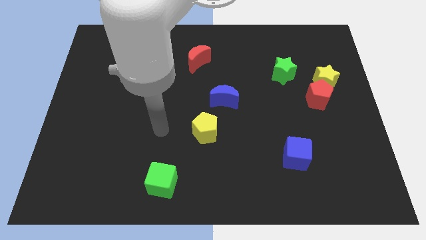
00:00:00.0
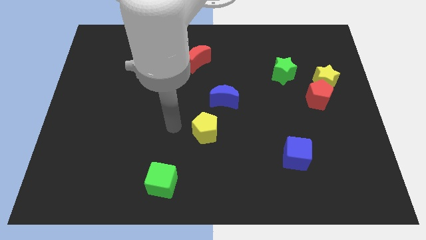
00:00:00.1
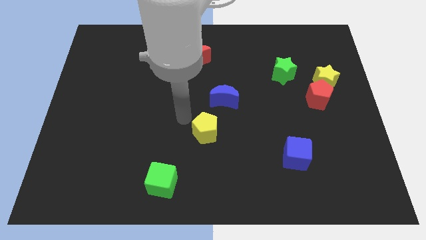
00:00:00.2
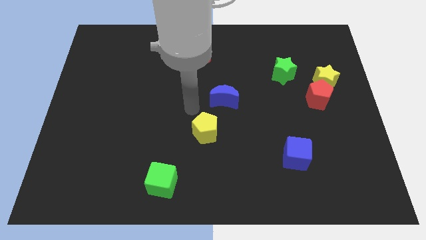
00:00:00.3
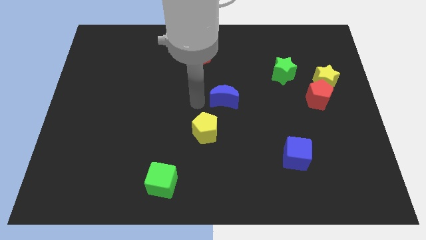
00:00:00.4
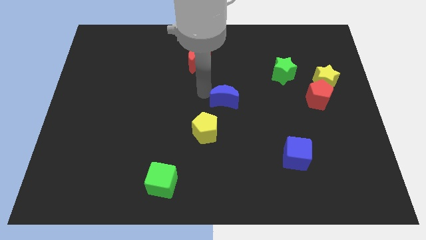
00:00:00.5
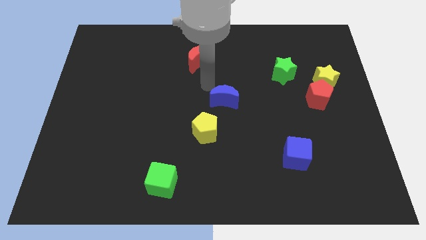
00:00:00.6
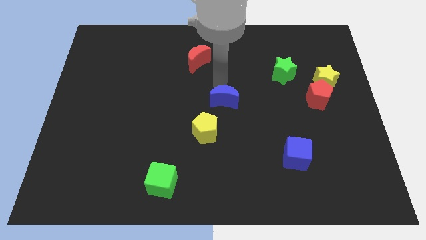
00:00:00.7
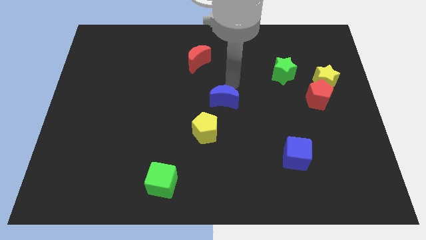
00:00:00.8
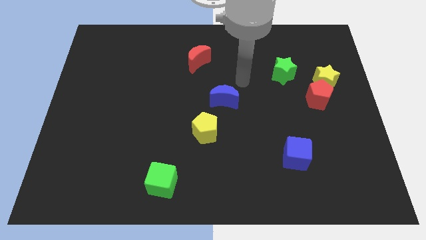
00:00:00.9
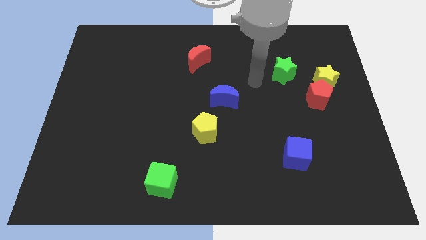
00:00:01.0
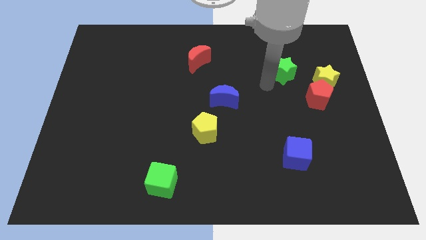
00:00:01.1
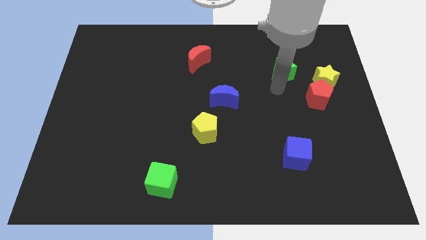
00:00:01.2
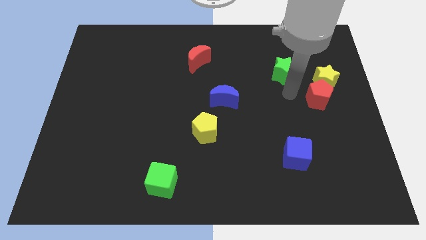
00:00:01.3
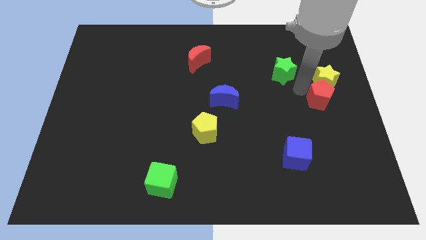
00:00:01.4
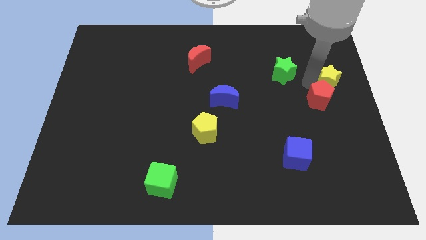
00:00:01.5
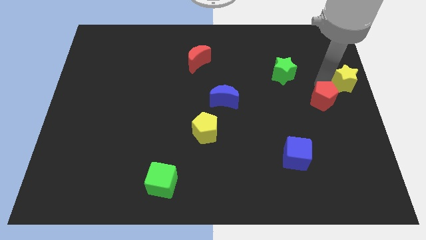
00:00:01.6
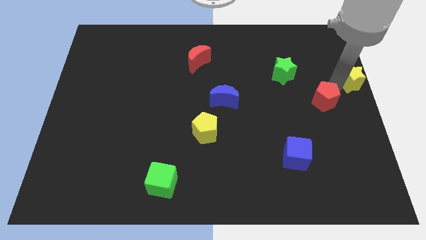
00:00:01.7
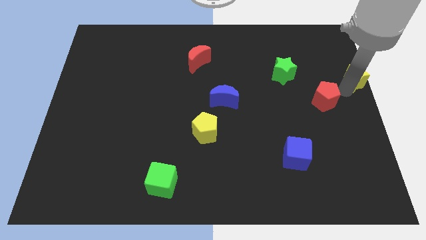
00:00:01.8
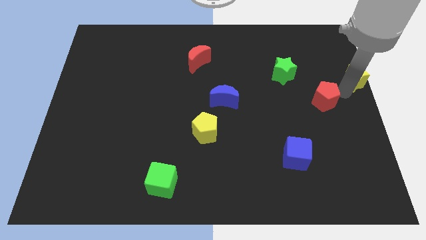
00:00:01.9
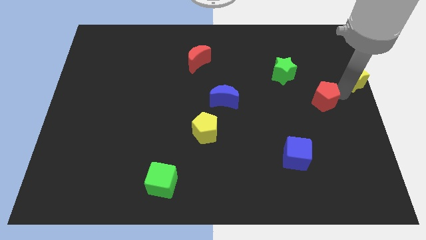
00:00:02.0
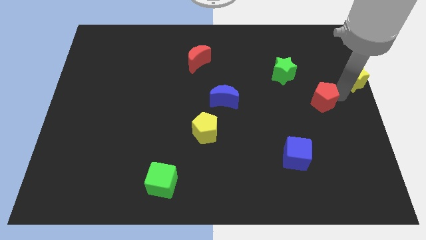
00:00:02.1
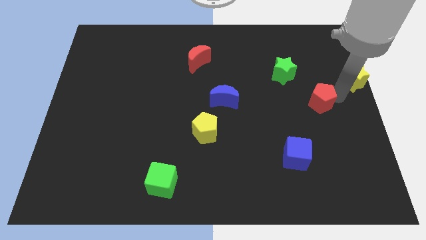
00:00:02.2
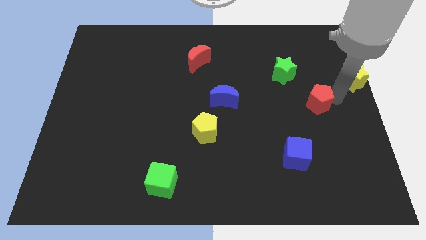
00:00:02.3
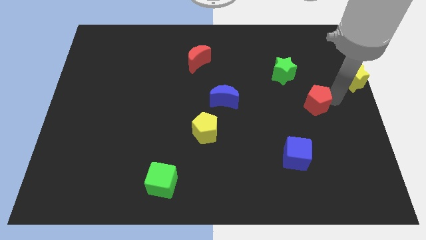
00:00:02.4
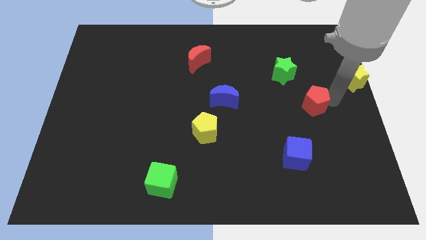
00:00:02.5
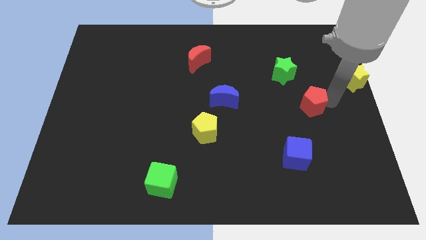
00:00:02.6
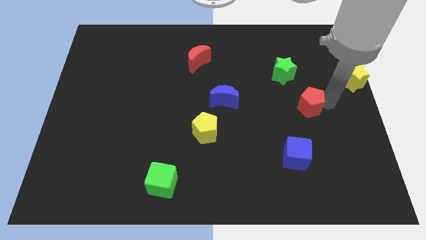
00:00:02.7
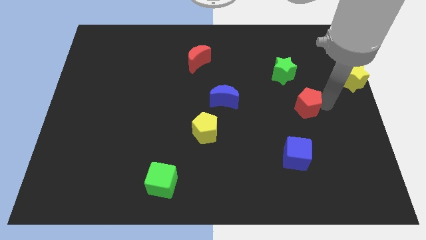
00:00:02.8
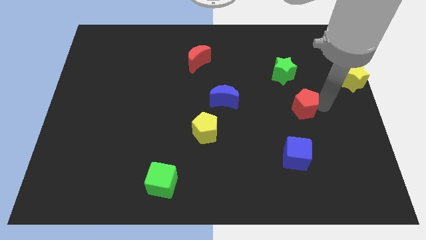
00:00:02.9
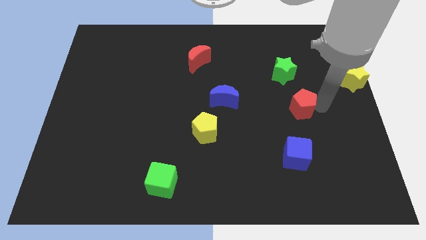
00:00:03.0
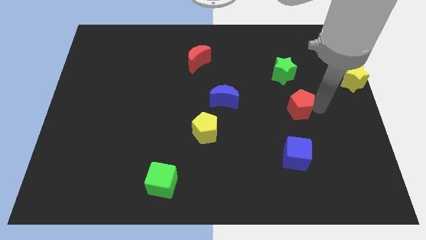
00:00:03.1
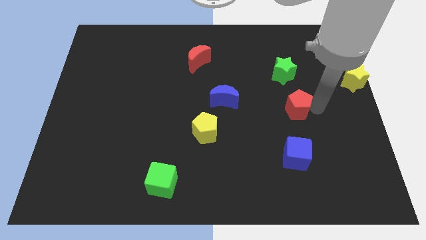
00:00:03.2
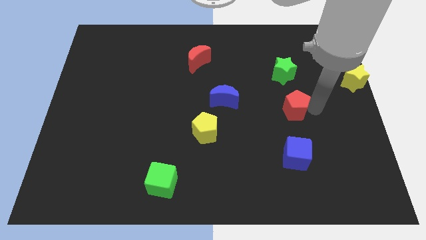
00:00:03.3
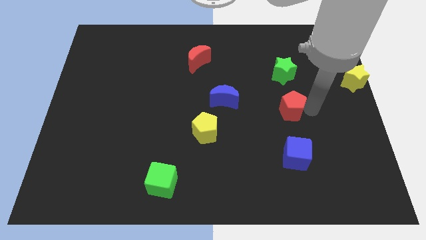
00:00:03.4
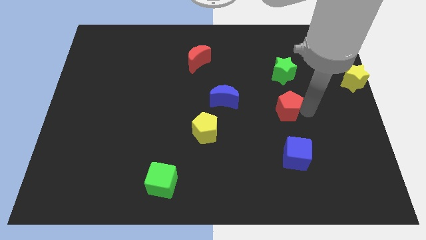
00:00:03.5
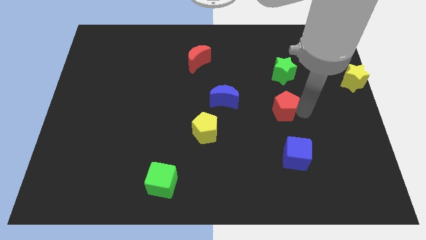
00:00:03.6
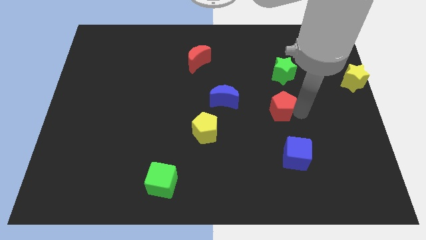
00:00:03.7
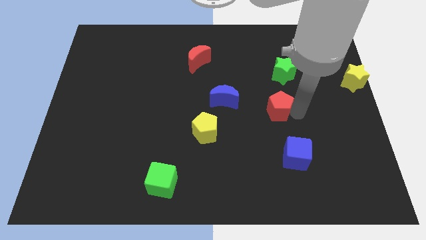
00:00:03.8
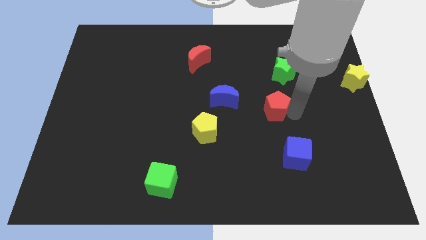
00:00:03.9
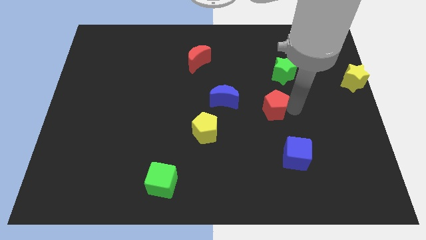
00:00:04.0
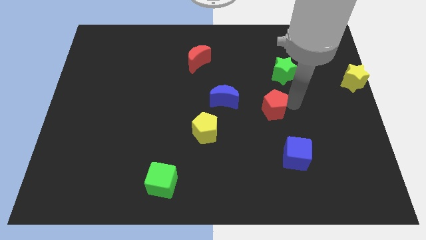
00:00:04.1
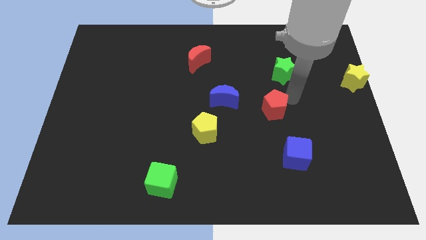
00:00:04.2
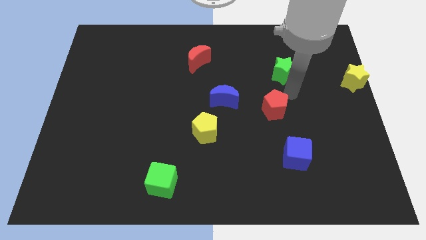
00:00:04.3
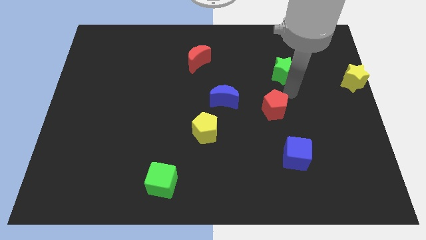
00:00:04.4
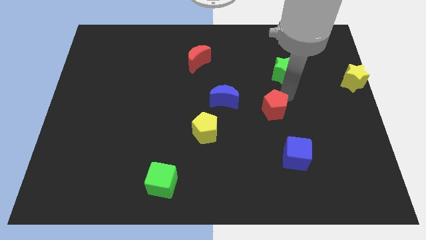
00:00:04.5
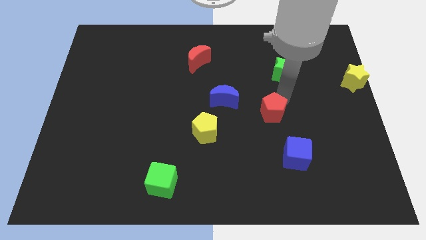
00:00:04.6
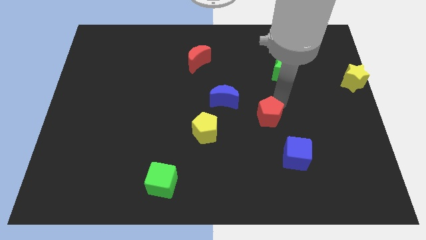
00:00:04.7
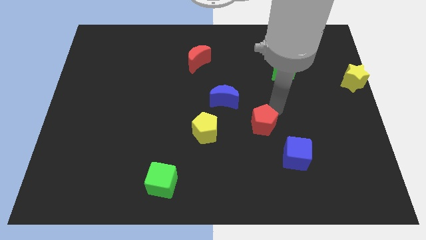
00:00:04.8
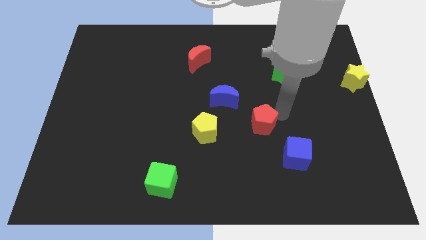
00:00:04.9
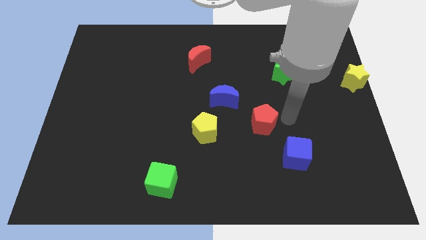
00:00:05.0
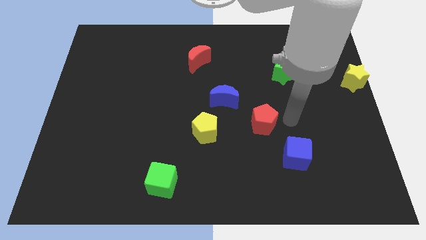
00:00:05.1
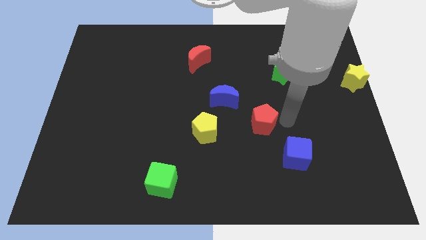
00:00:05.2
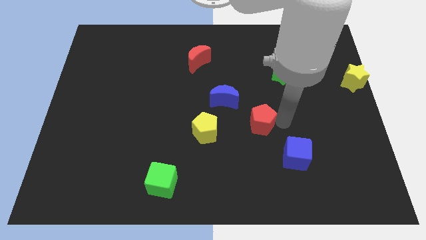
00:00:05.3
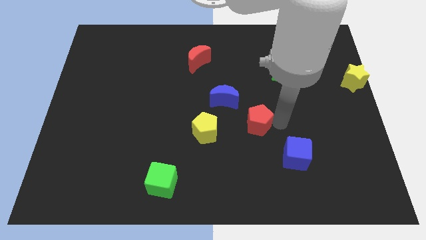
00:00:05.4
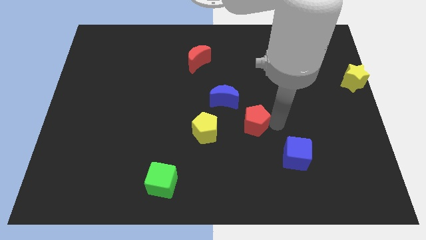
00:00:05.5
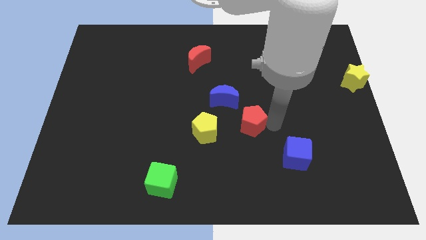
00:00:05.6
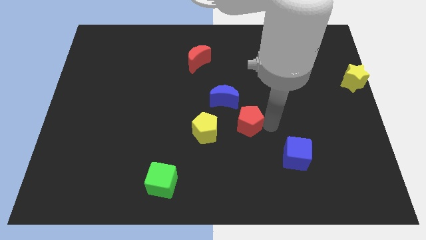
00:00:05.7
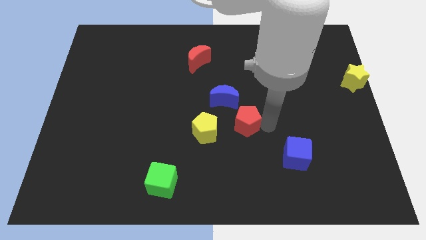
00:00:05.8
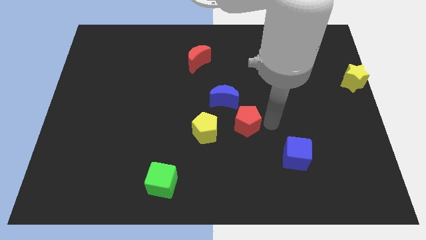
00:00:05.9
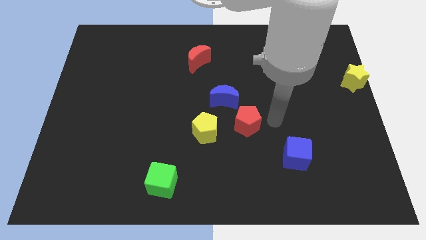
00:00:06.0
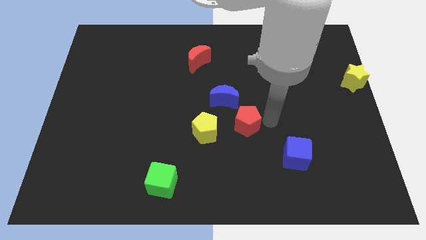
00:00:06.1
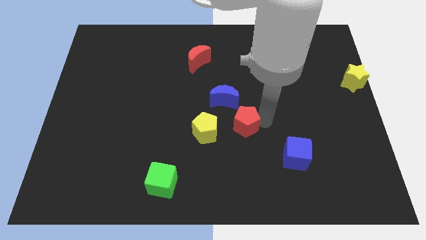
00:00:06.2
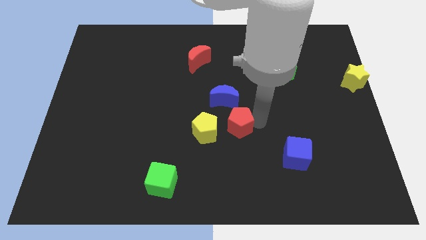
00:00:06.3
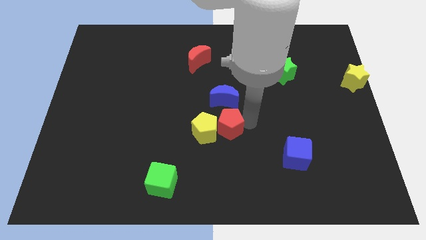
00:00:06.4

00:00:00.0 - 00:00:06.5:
push the red pentagon to the yellow pentagon

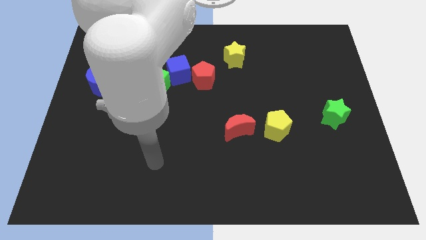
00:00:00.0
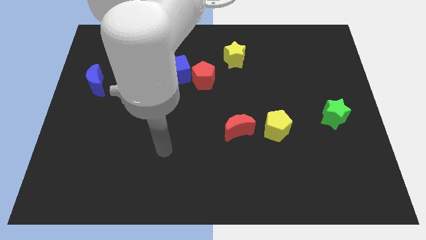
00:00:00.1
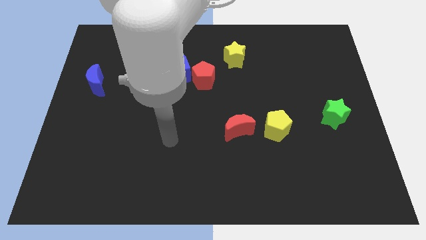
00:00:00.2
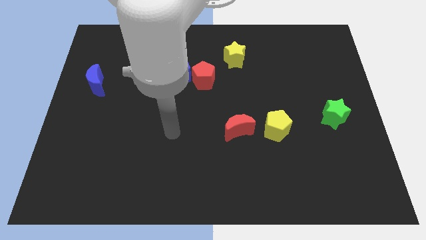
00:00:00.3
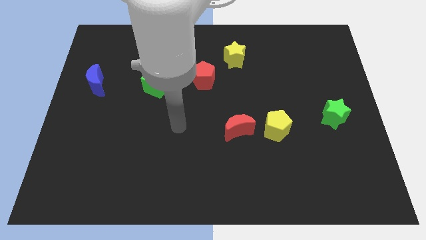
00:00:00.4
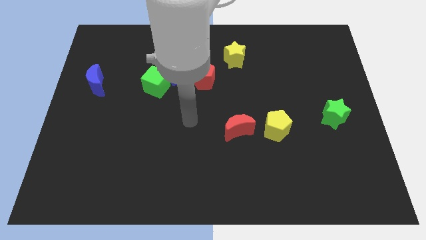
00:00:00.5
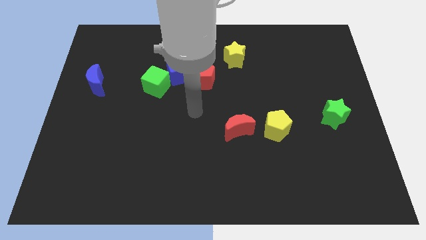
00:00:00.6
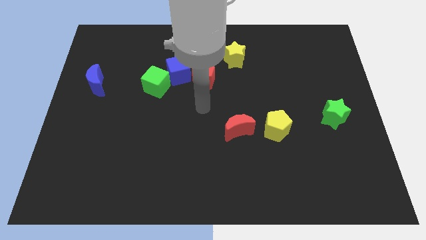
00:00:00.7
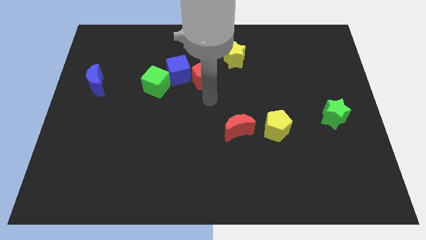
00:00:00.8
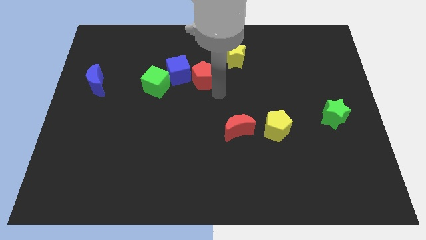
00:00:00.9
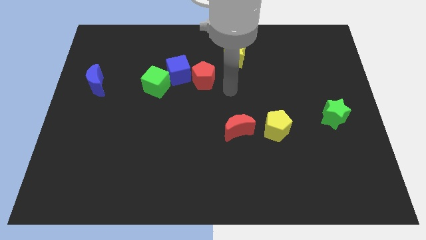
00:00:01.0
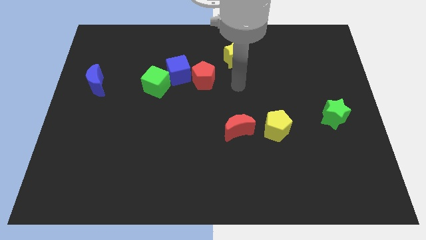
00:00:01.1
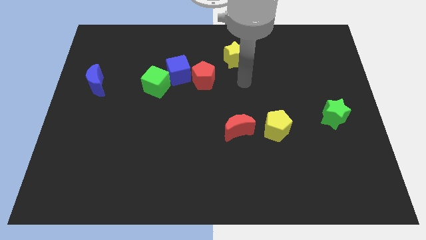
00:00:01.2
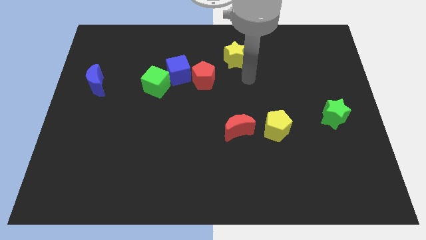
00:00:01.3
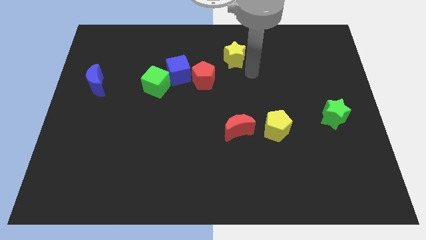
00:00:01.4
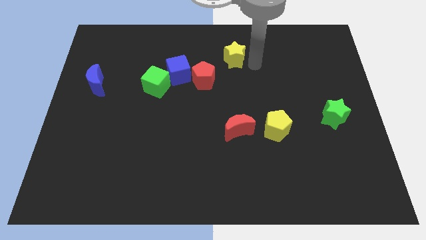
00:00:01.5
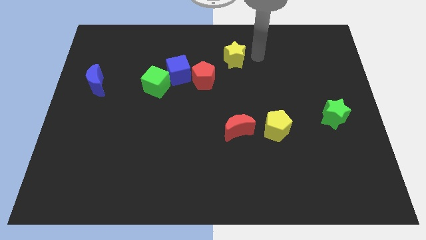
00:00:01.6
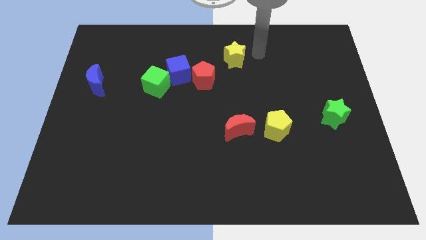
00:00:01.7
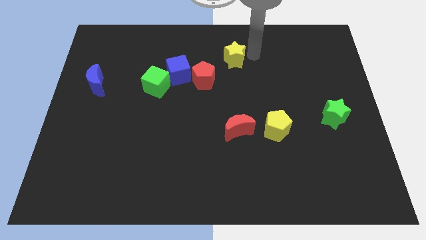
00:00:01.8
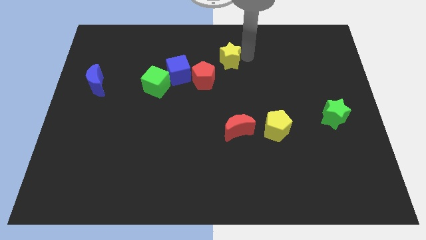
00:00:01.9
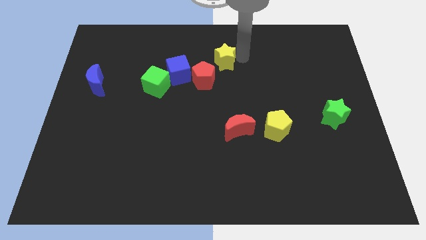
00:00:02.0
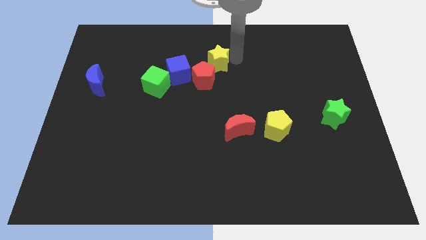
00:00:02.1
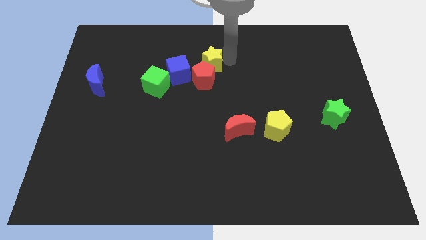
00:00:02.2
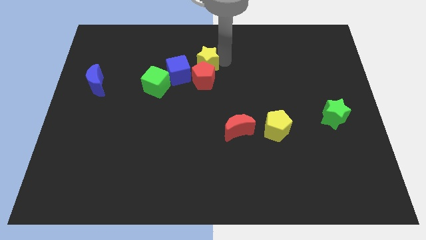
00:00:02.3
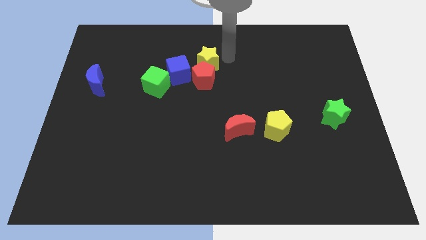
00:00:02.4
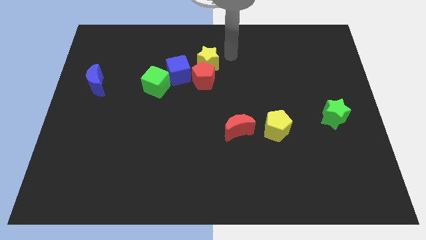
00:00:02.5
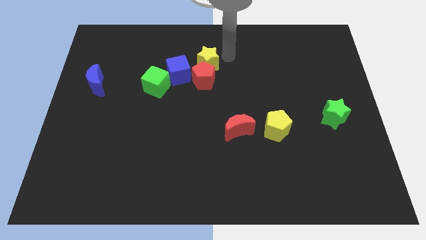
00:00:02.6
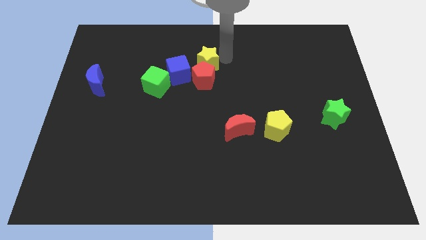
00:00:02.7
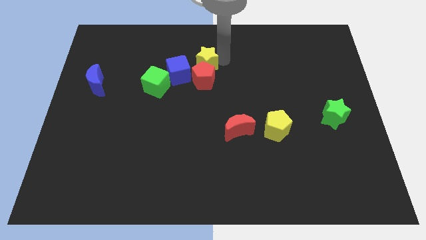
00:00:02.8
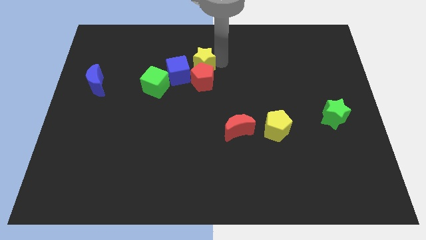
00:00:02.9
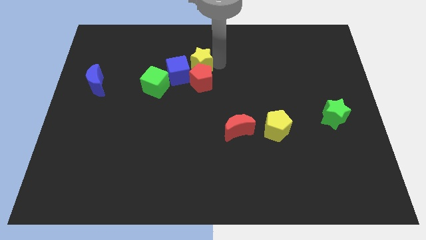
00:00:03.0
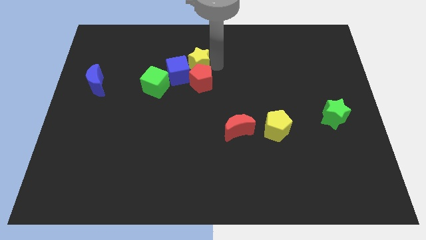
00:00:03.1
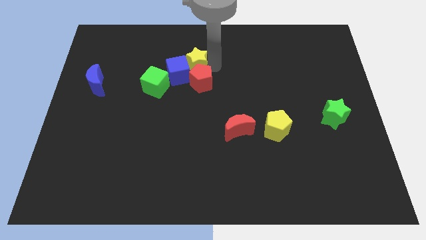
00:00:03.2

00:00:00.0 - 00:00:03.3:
put the yellow star close to the blue cube
